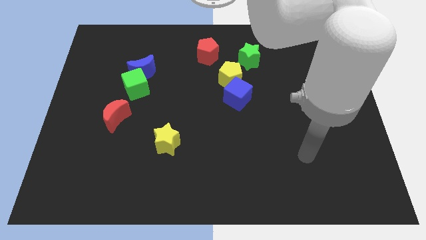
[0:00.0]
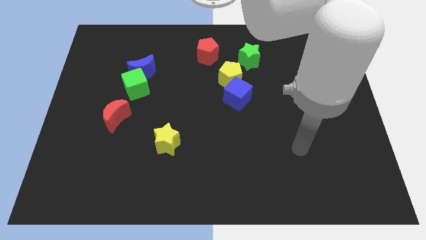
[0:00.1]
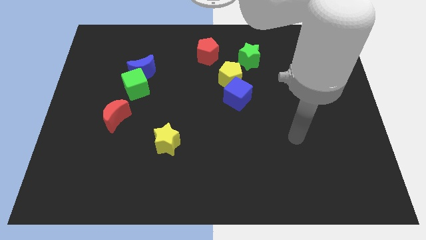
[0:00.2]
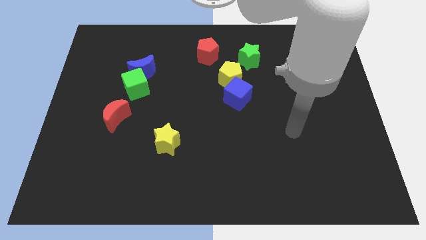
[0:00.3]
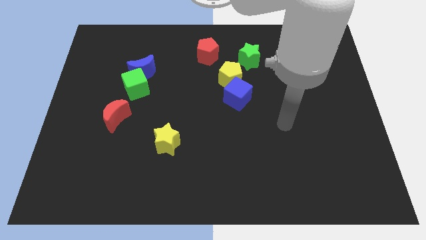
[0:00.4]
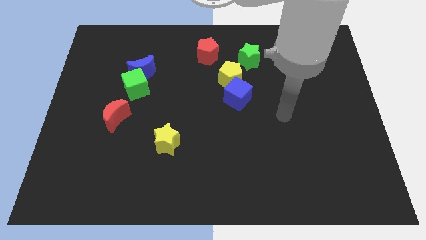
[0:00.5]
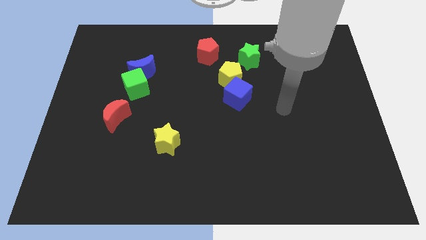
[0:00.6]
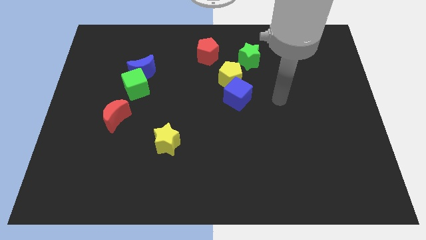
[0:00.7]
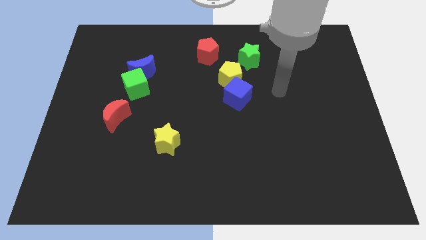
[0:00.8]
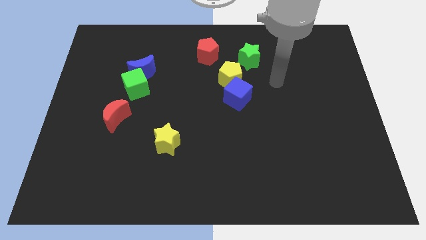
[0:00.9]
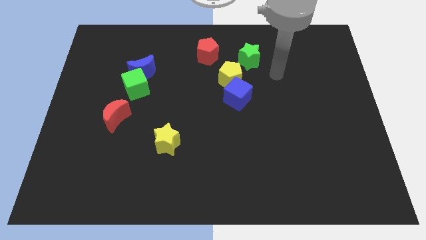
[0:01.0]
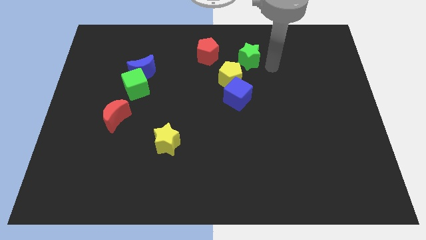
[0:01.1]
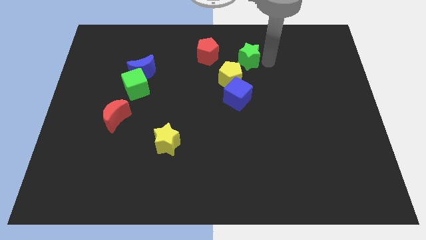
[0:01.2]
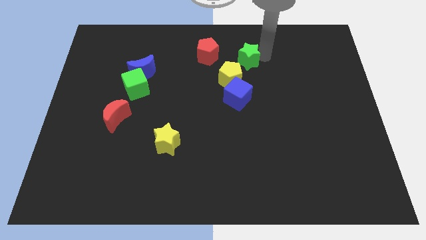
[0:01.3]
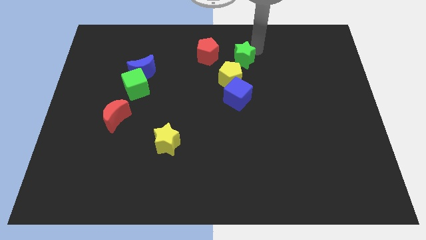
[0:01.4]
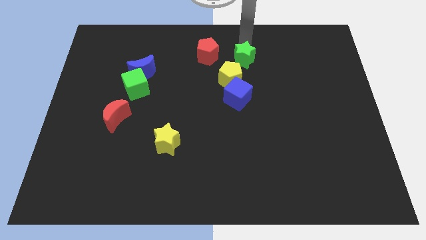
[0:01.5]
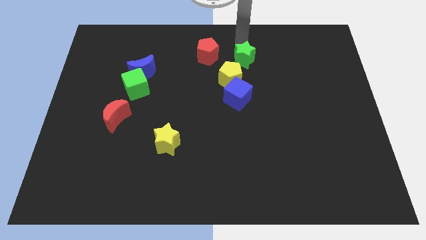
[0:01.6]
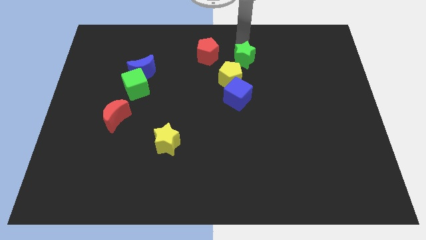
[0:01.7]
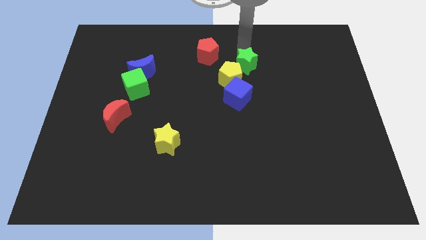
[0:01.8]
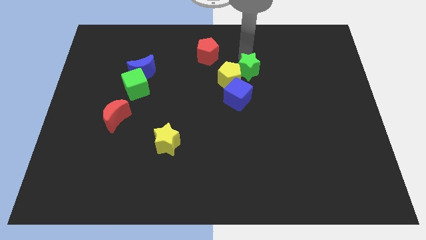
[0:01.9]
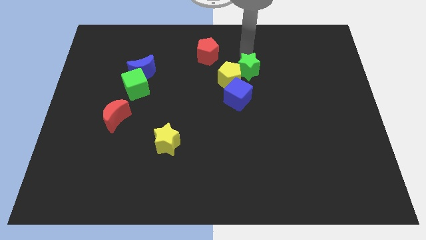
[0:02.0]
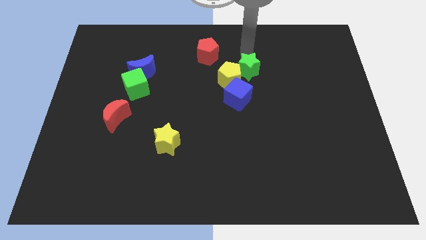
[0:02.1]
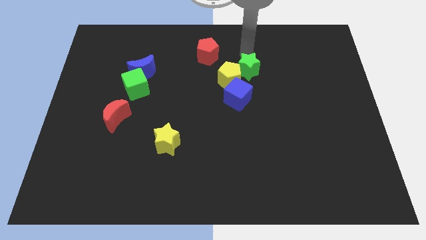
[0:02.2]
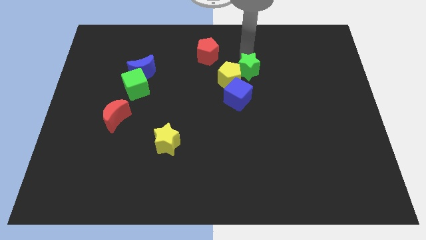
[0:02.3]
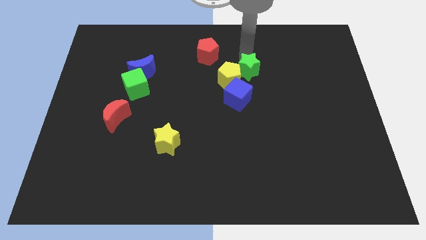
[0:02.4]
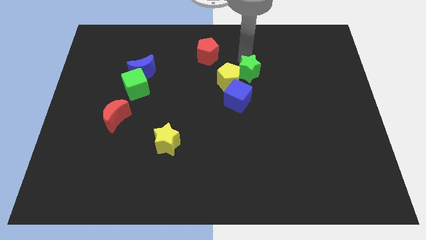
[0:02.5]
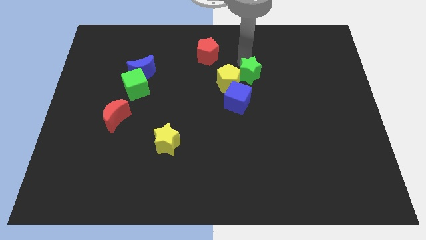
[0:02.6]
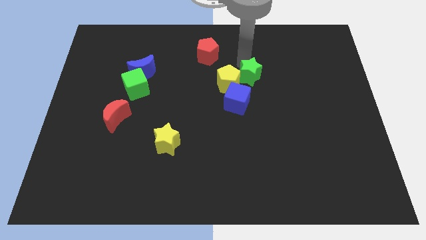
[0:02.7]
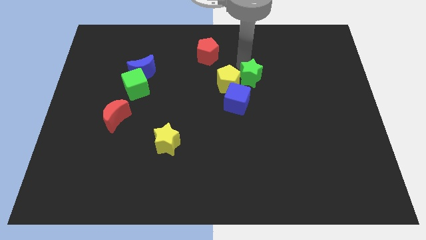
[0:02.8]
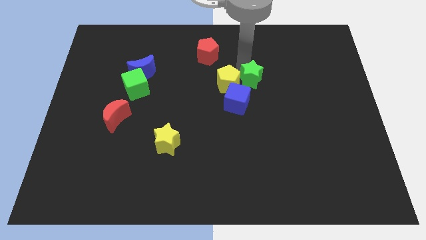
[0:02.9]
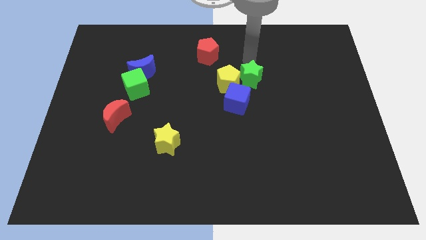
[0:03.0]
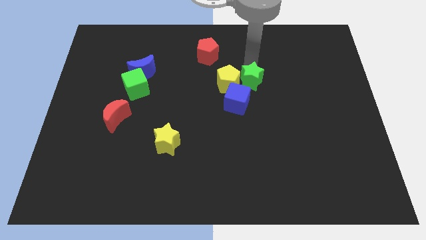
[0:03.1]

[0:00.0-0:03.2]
slide the green star slightly downwards

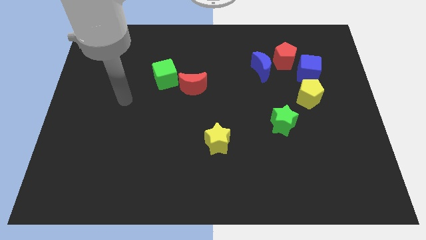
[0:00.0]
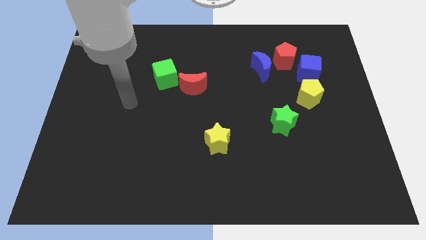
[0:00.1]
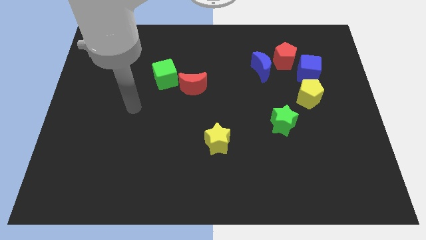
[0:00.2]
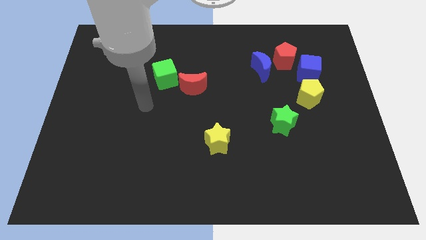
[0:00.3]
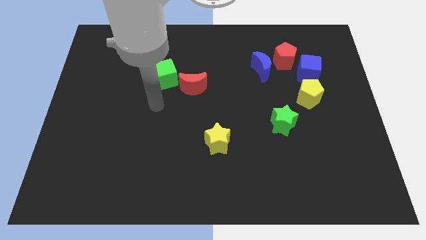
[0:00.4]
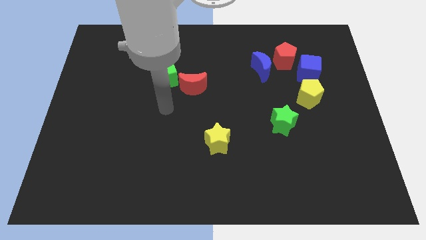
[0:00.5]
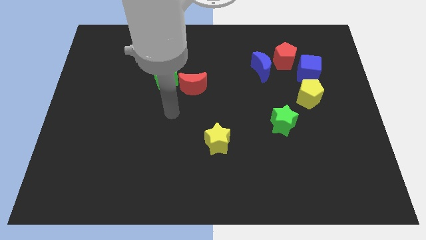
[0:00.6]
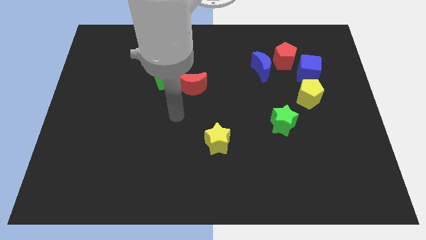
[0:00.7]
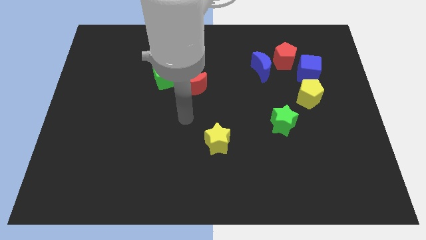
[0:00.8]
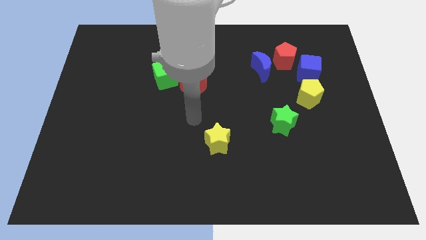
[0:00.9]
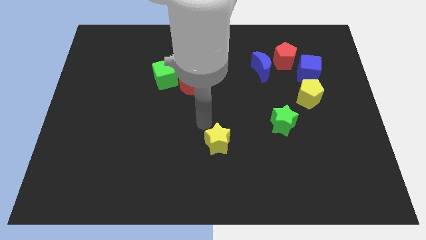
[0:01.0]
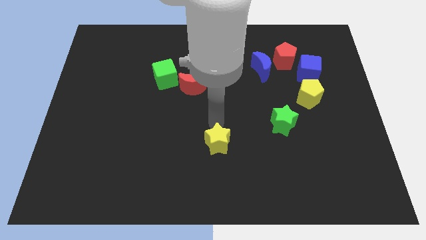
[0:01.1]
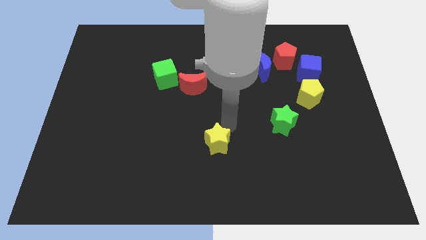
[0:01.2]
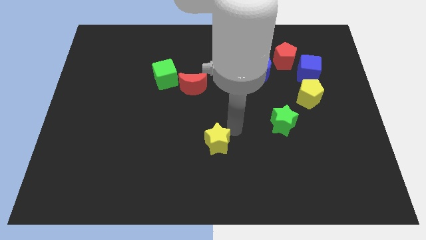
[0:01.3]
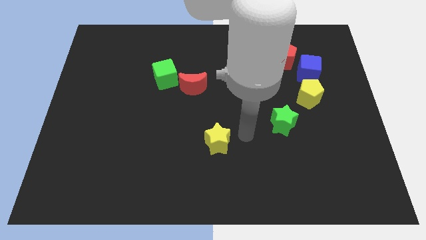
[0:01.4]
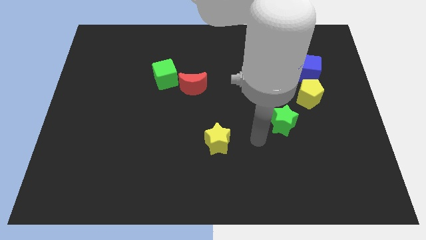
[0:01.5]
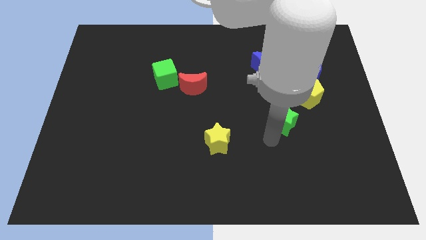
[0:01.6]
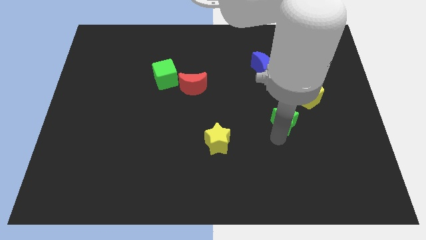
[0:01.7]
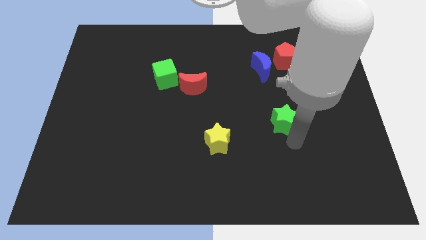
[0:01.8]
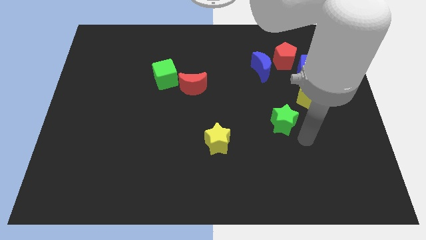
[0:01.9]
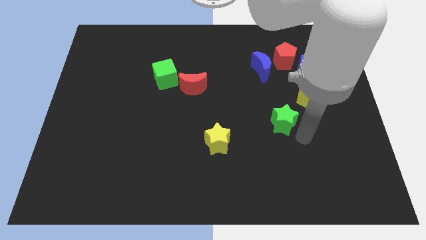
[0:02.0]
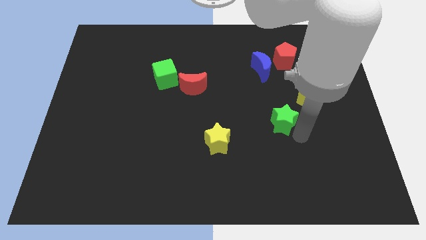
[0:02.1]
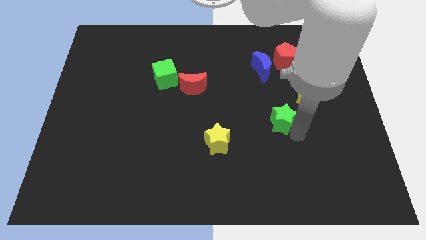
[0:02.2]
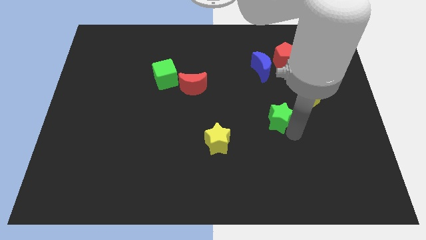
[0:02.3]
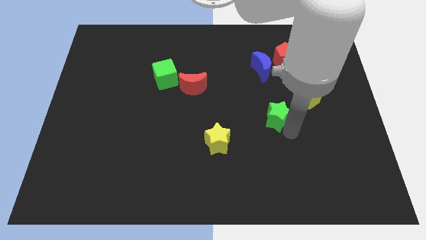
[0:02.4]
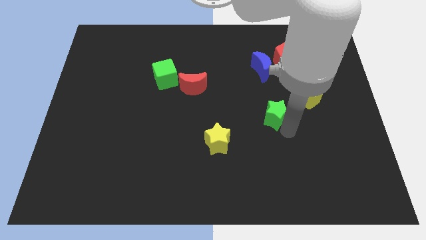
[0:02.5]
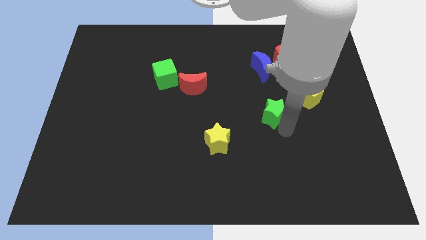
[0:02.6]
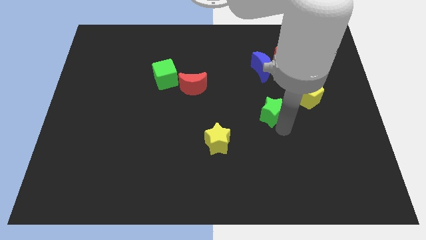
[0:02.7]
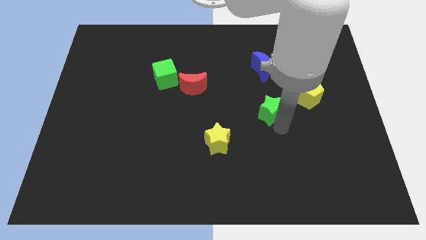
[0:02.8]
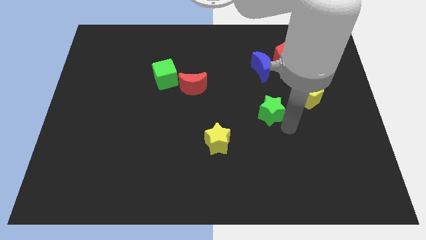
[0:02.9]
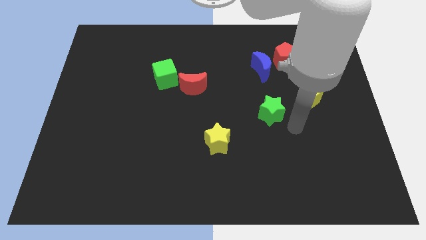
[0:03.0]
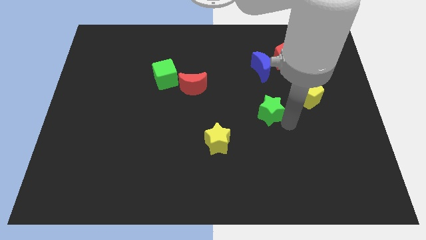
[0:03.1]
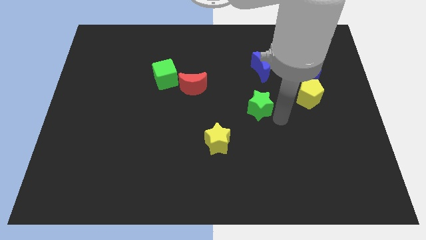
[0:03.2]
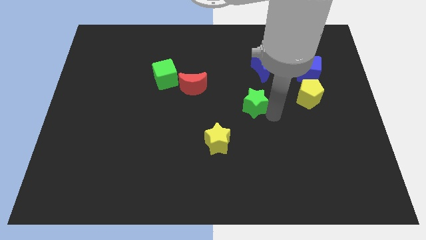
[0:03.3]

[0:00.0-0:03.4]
slide the green star up and to the left somewhat

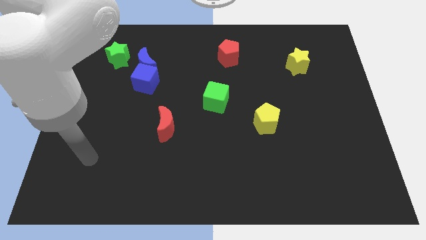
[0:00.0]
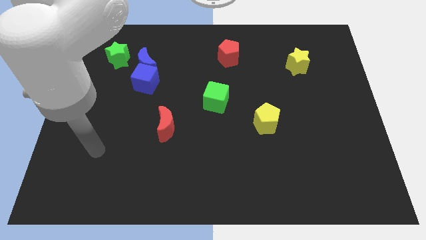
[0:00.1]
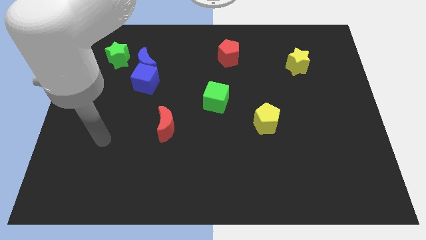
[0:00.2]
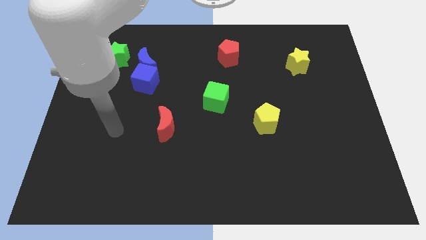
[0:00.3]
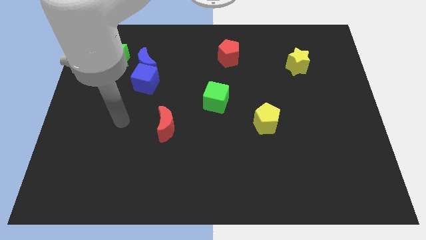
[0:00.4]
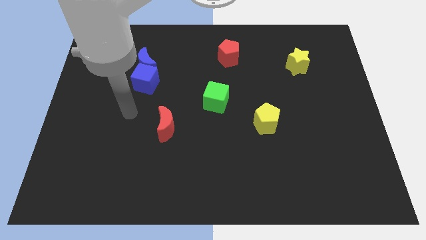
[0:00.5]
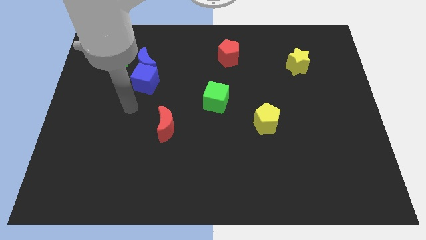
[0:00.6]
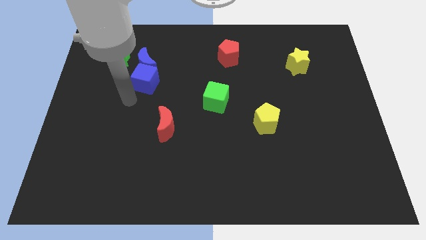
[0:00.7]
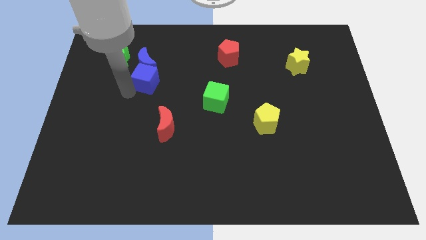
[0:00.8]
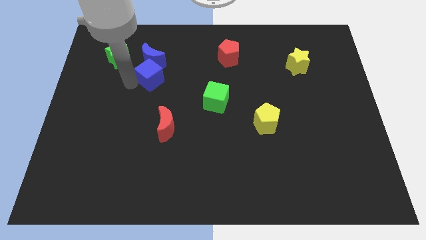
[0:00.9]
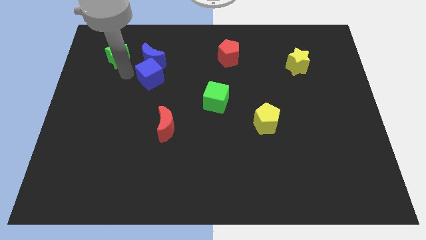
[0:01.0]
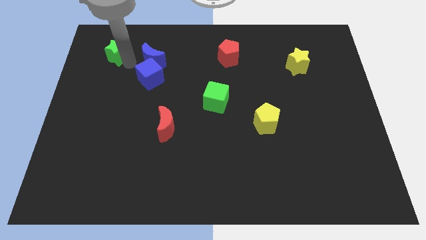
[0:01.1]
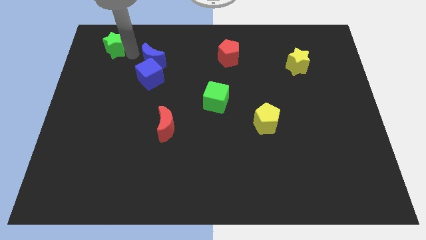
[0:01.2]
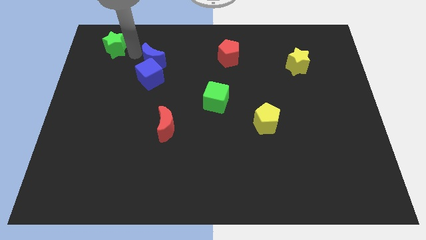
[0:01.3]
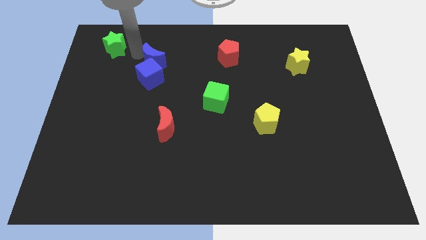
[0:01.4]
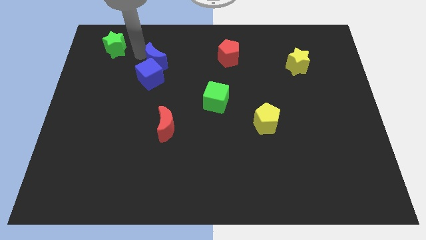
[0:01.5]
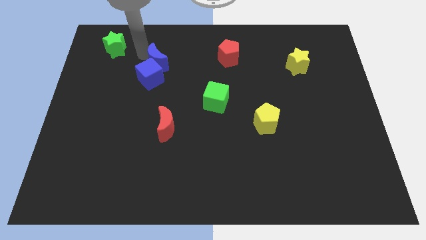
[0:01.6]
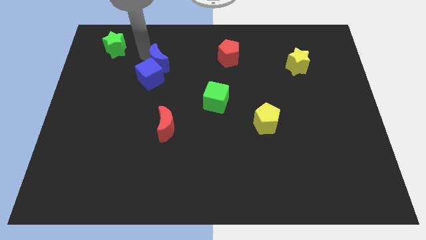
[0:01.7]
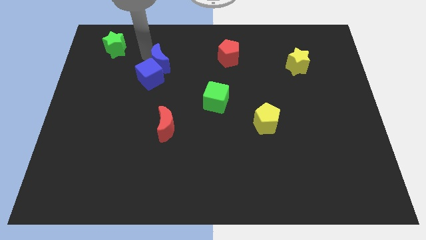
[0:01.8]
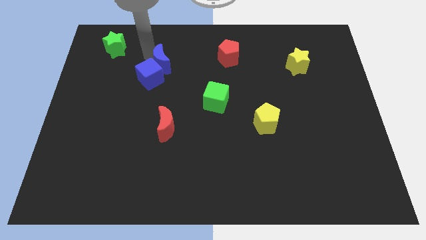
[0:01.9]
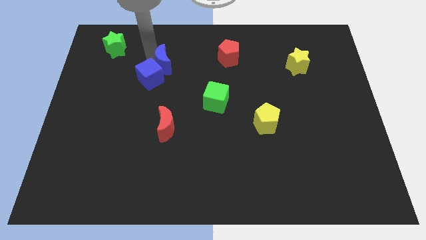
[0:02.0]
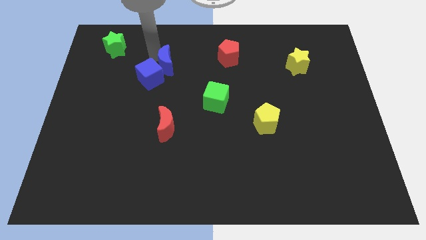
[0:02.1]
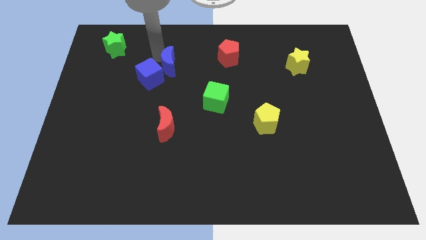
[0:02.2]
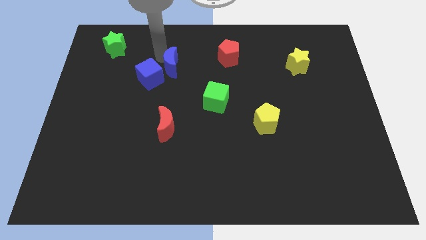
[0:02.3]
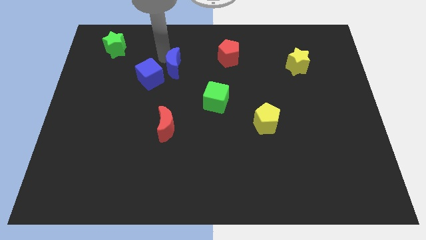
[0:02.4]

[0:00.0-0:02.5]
slightly slide the blue moon right
